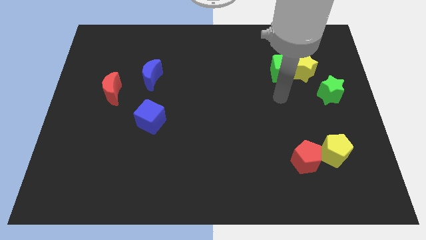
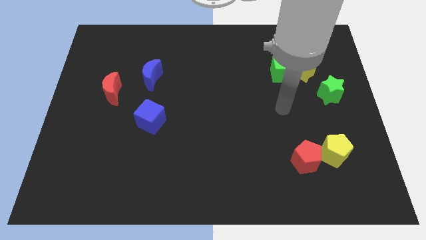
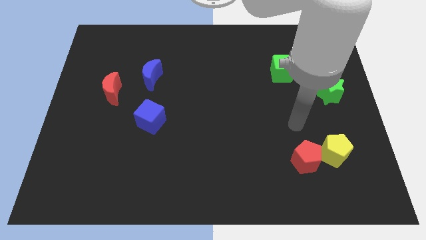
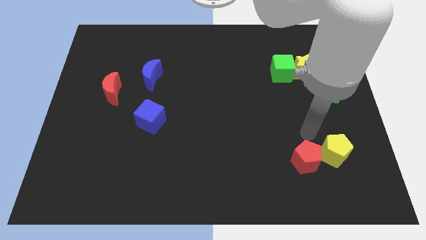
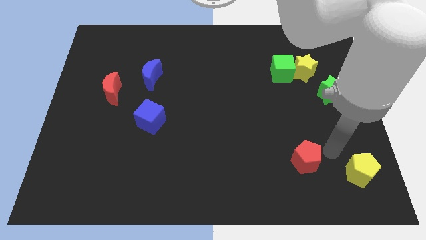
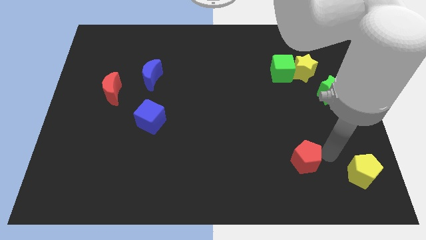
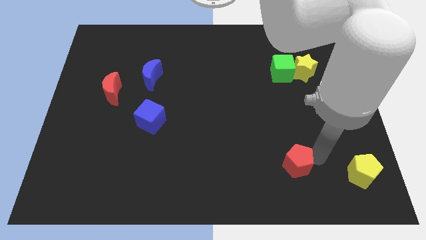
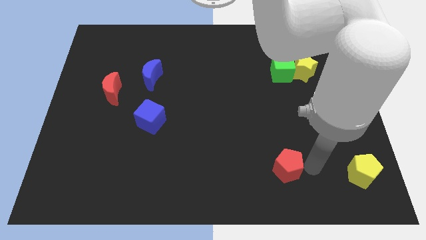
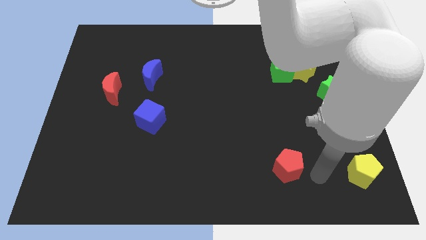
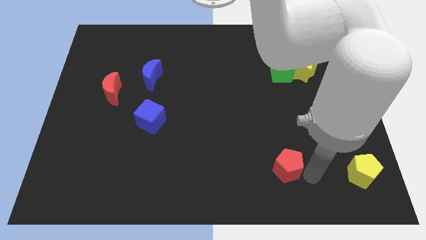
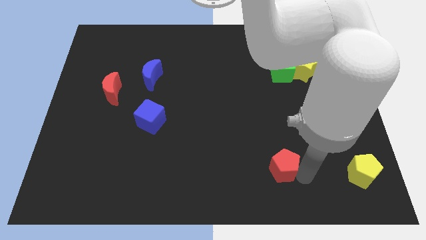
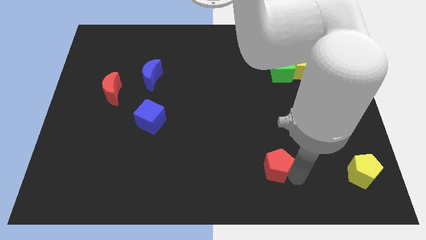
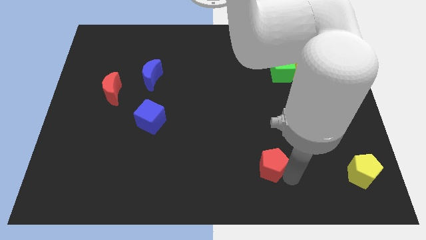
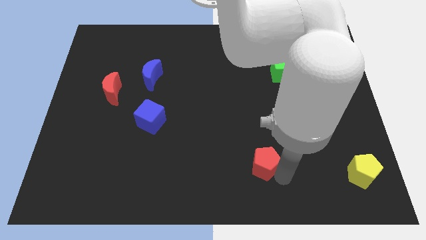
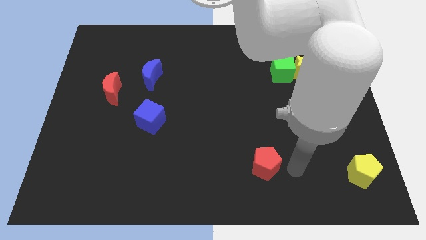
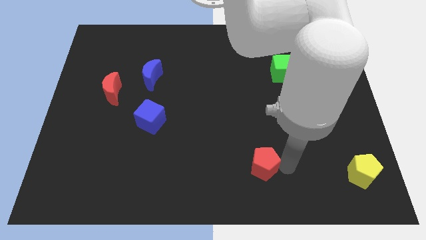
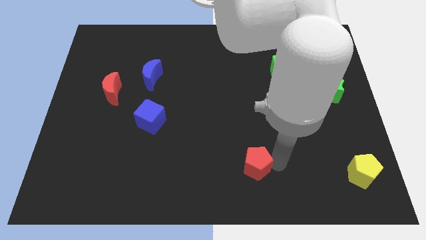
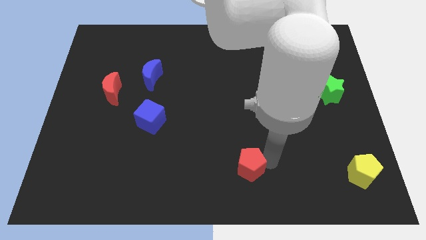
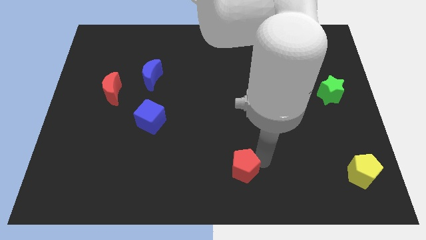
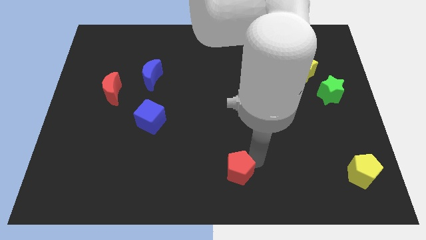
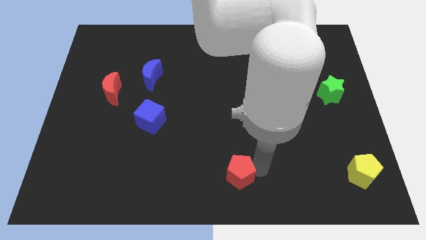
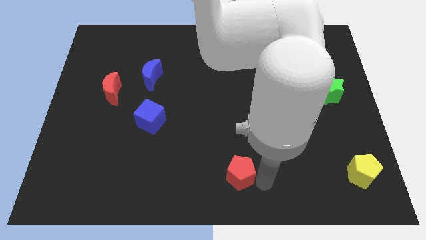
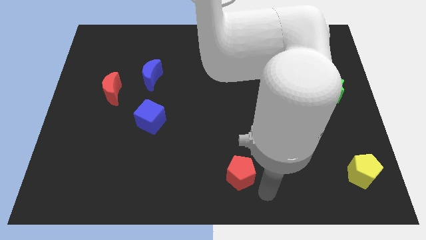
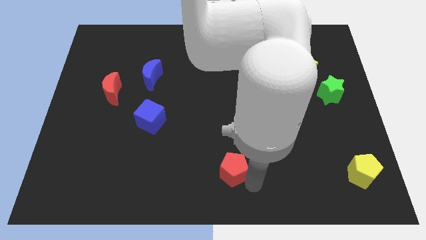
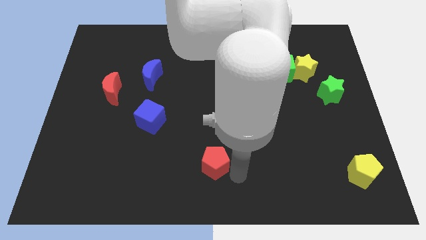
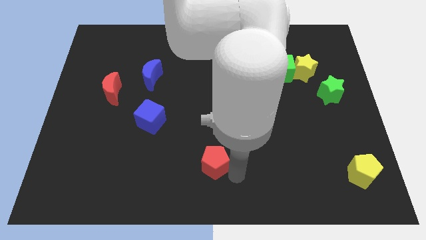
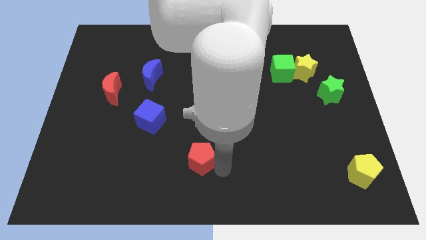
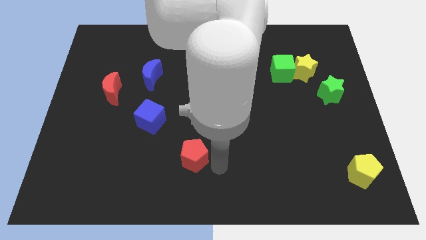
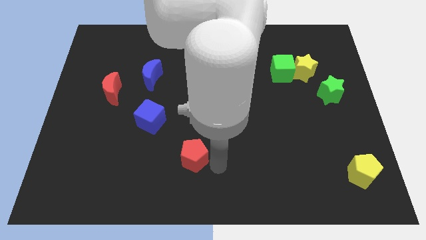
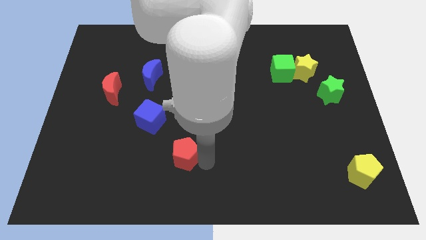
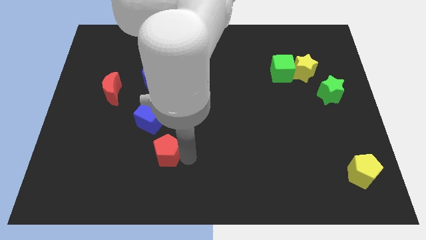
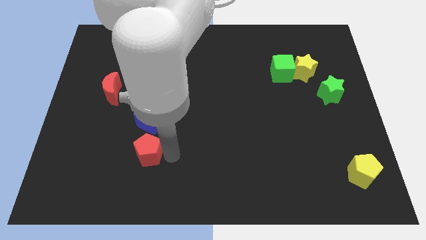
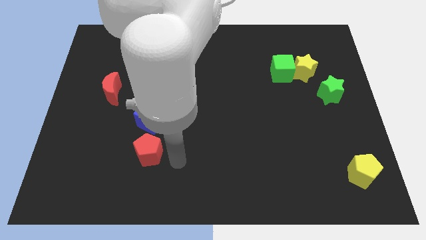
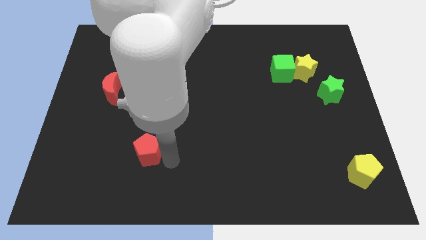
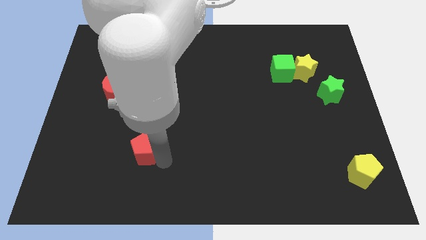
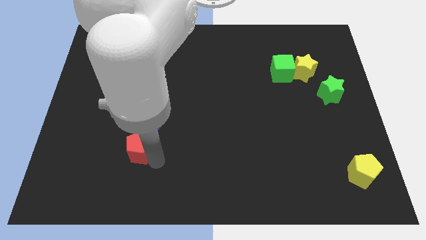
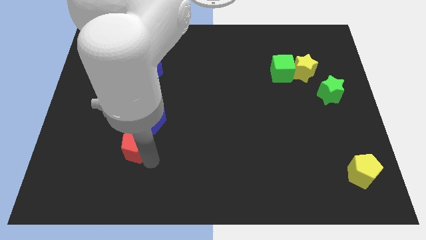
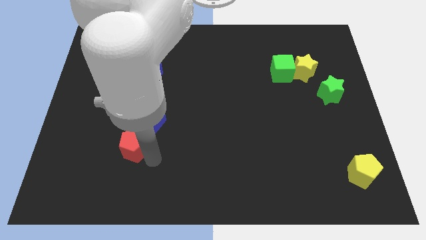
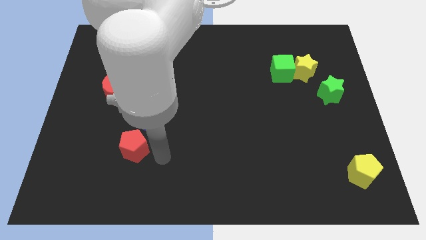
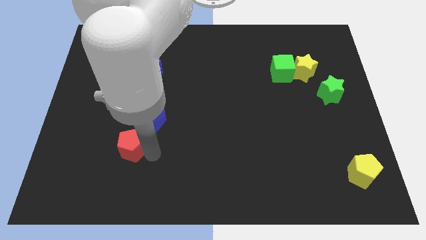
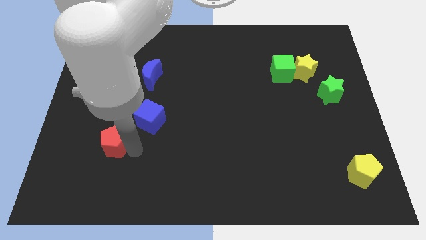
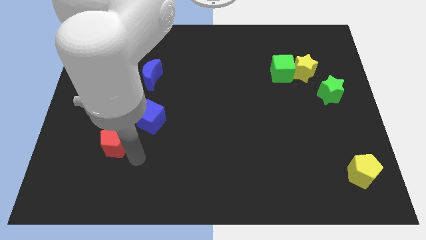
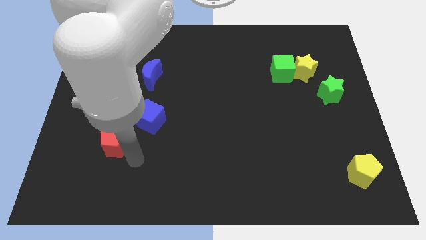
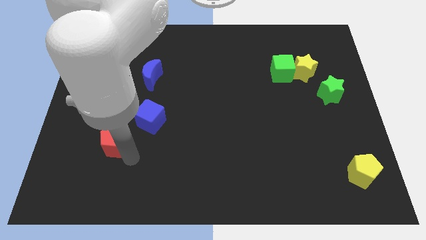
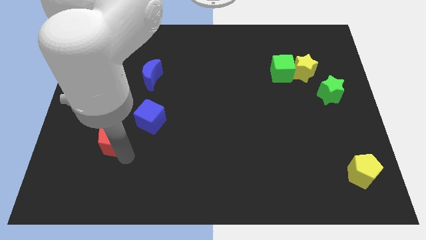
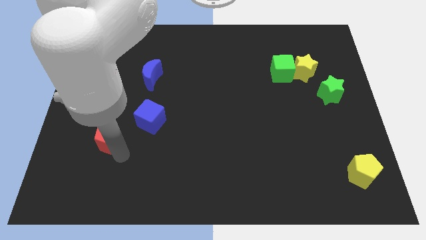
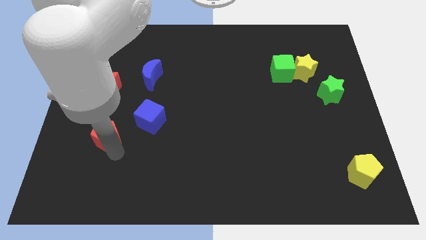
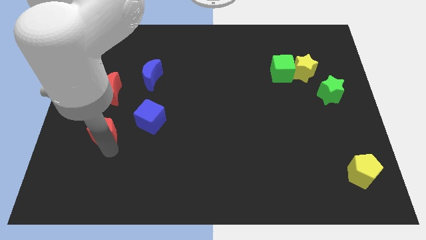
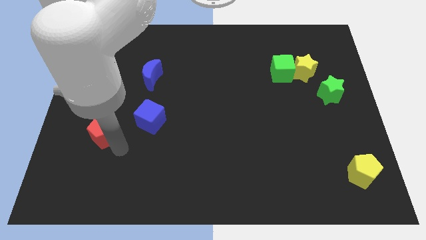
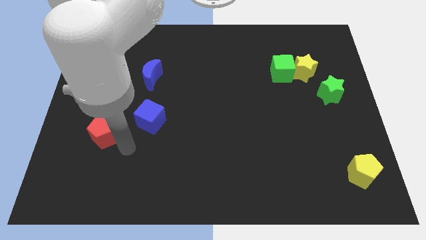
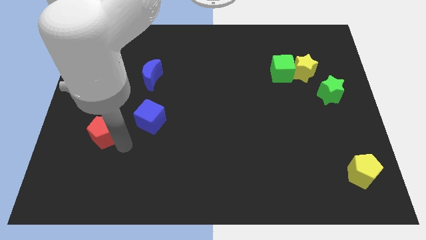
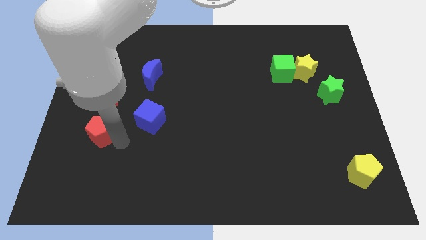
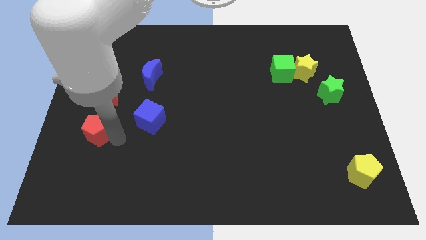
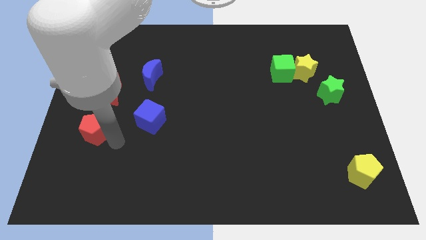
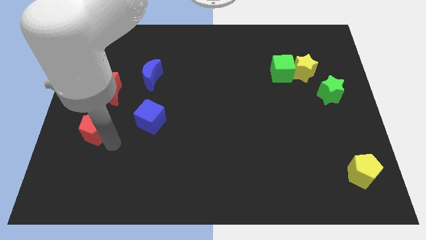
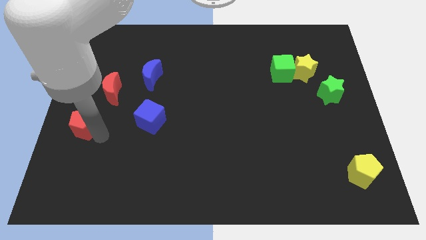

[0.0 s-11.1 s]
move the red pentagon to the center left
